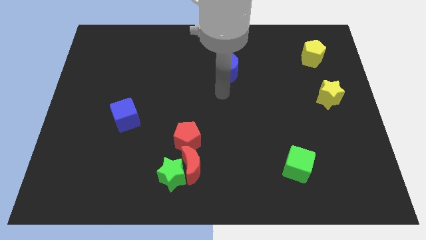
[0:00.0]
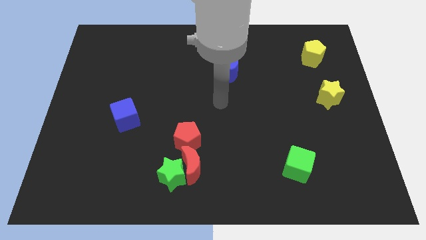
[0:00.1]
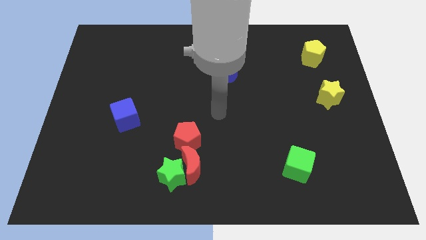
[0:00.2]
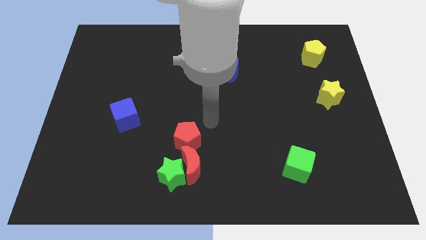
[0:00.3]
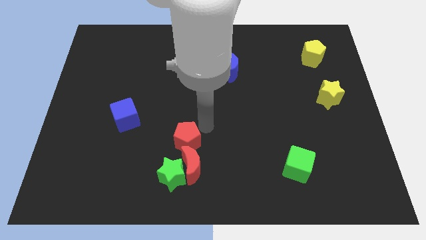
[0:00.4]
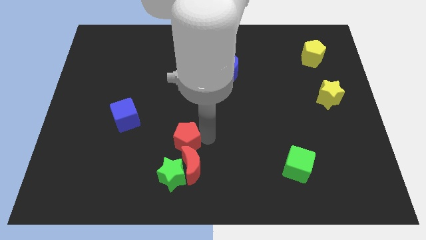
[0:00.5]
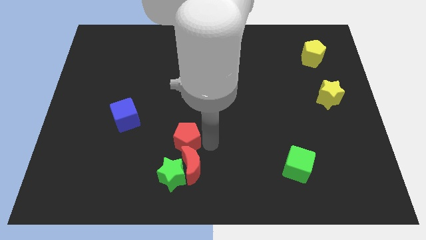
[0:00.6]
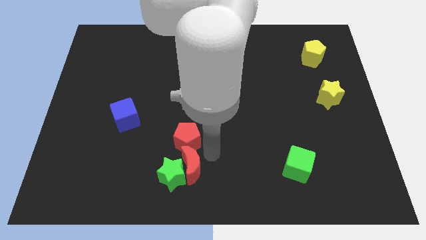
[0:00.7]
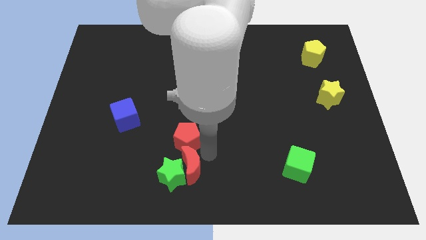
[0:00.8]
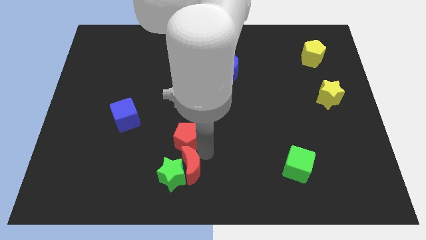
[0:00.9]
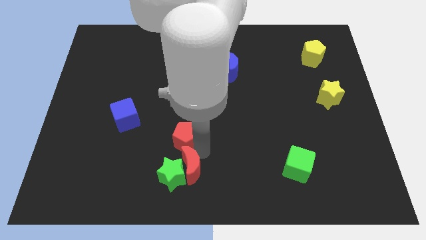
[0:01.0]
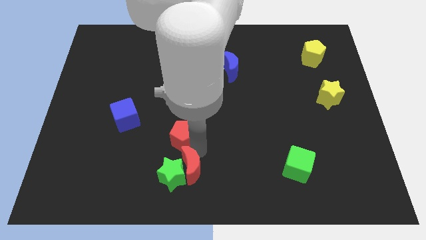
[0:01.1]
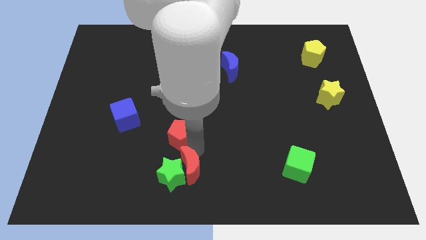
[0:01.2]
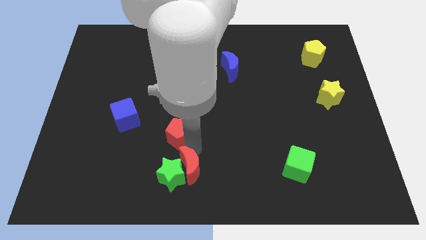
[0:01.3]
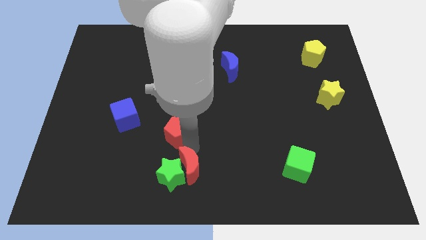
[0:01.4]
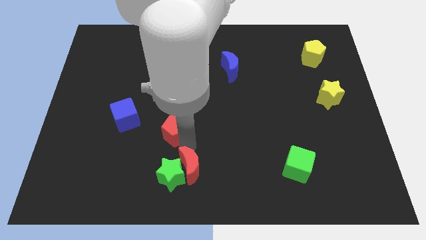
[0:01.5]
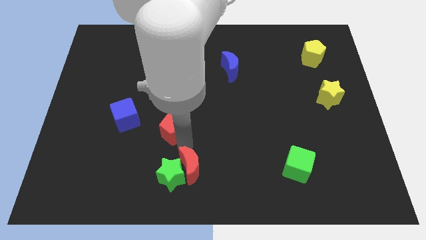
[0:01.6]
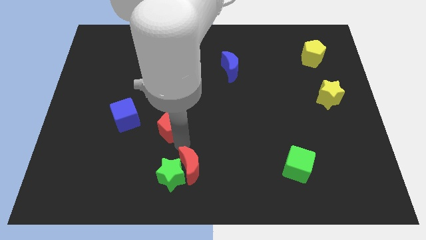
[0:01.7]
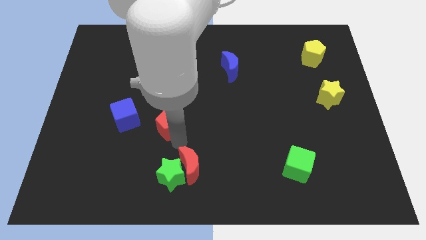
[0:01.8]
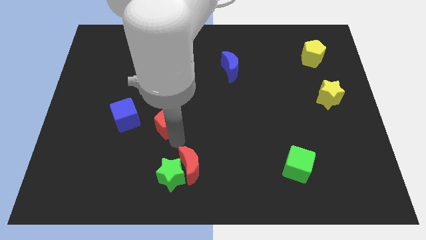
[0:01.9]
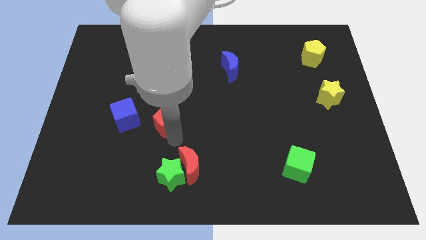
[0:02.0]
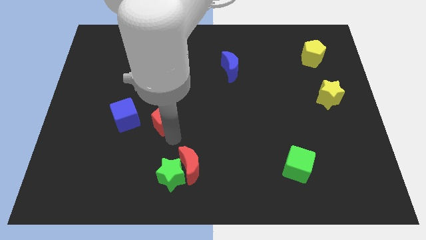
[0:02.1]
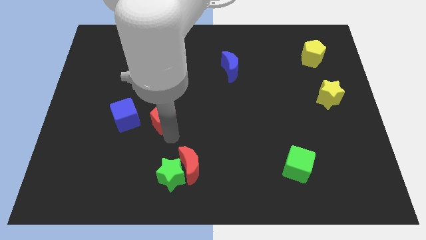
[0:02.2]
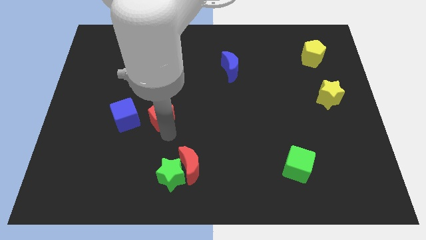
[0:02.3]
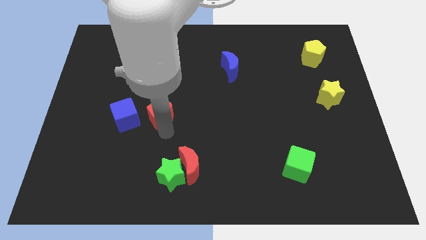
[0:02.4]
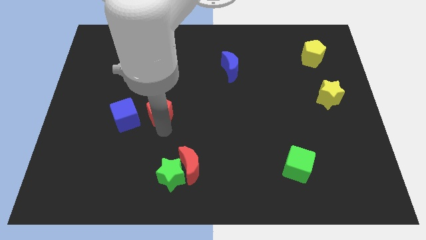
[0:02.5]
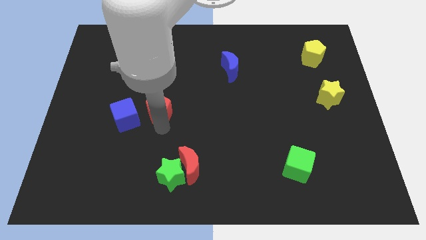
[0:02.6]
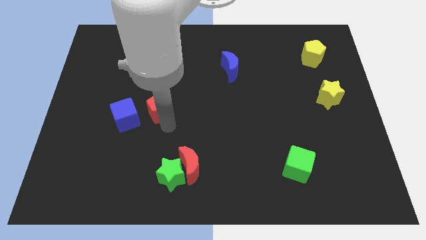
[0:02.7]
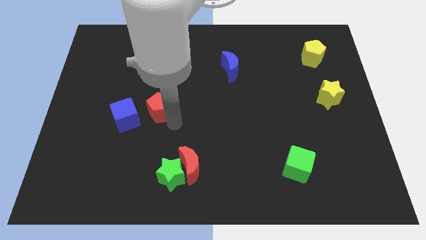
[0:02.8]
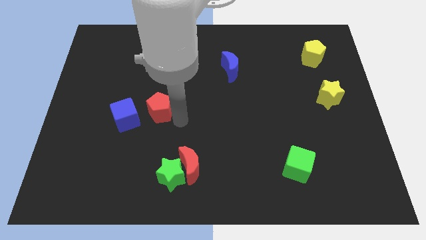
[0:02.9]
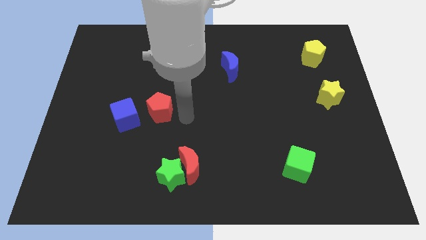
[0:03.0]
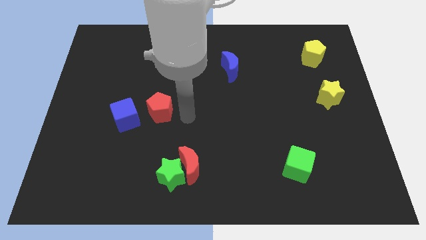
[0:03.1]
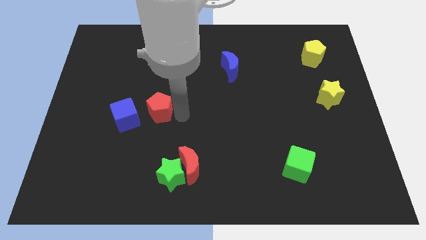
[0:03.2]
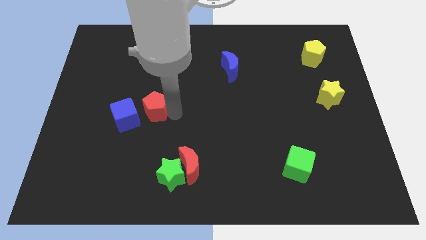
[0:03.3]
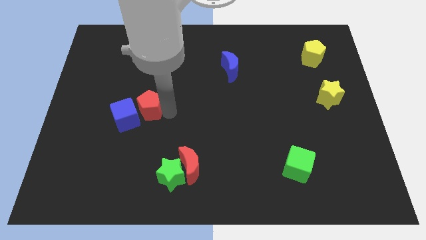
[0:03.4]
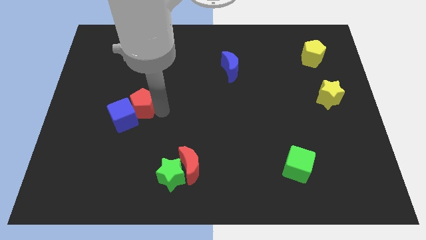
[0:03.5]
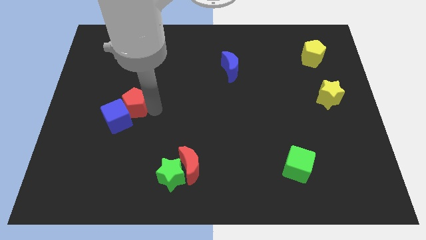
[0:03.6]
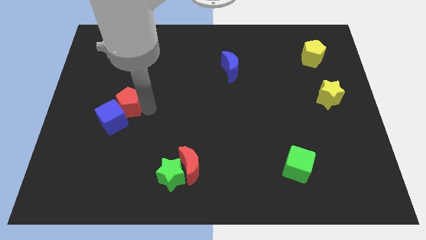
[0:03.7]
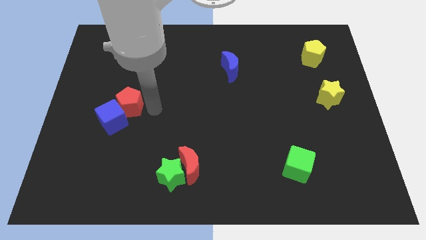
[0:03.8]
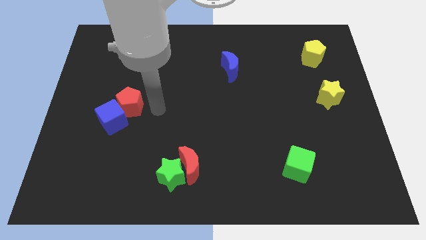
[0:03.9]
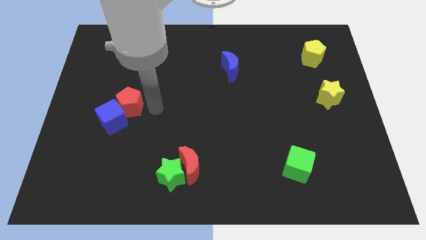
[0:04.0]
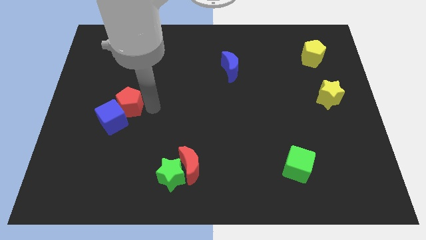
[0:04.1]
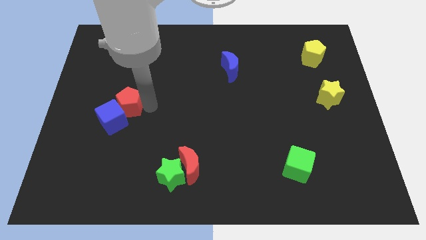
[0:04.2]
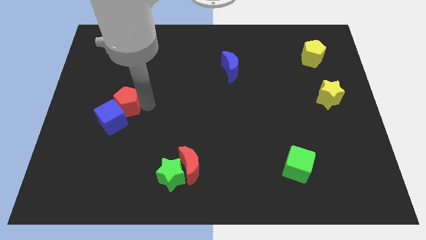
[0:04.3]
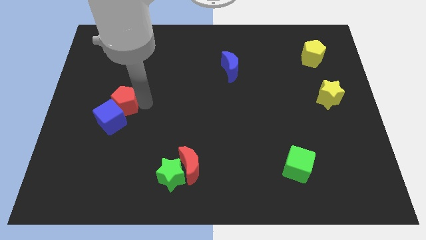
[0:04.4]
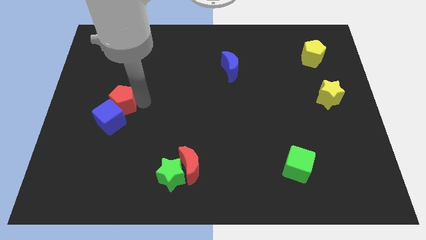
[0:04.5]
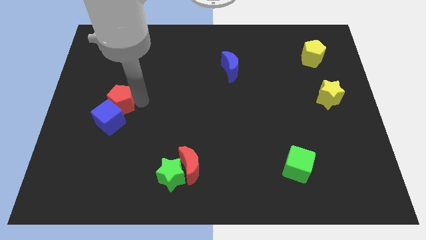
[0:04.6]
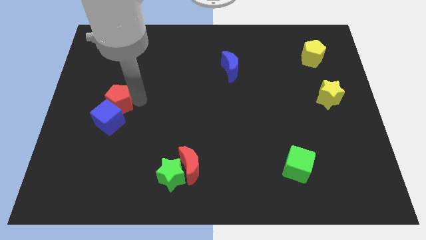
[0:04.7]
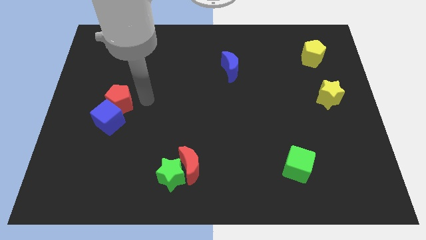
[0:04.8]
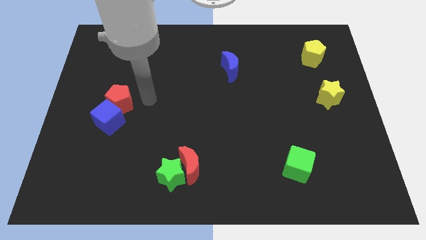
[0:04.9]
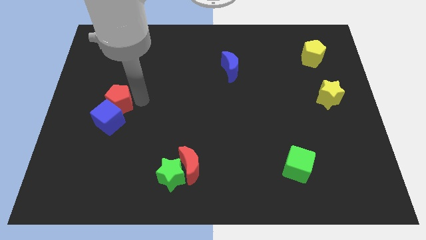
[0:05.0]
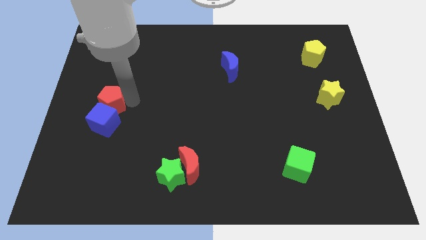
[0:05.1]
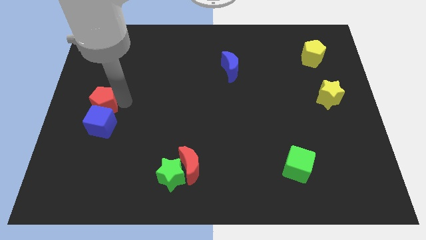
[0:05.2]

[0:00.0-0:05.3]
slide the red pentagon to the center left
